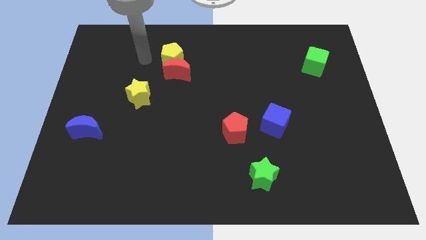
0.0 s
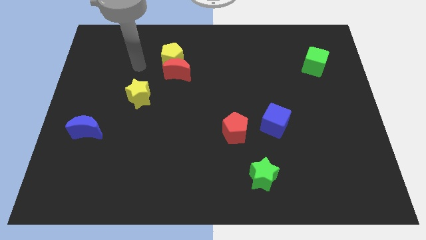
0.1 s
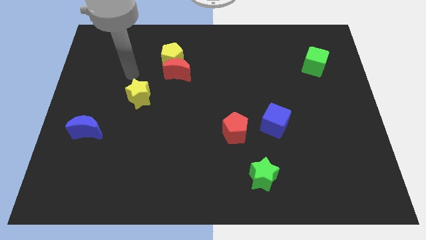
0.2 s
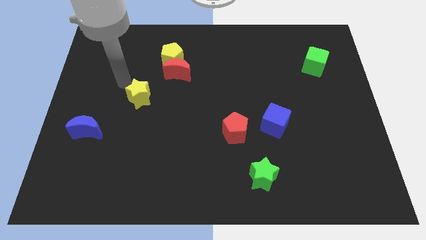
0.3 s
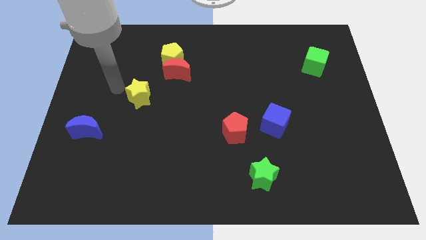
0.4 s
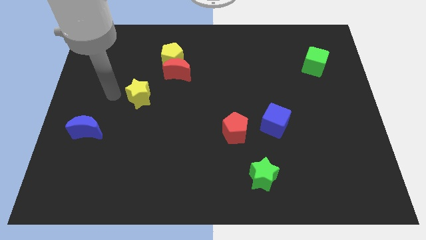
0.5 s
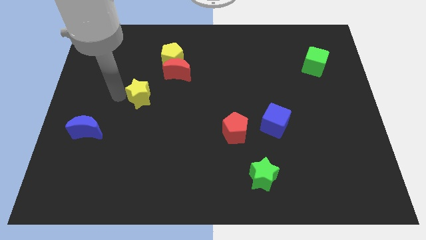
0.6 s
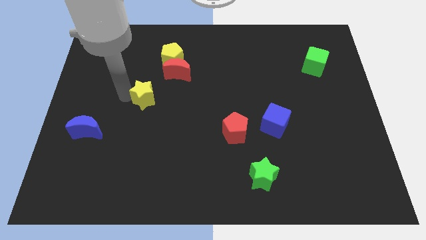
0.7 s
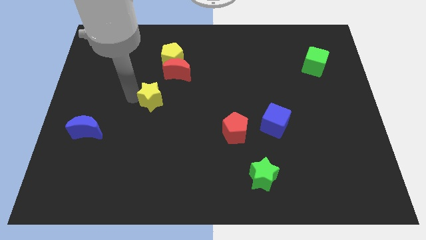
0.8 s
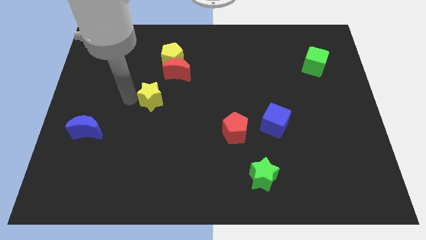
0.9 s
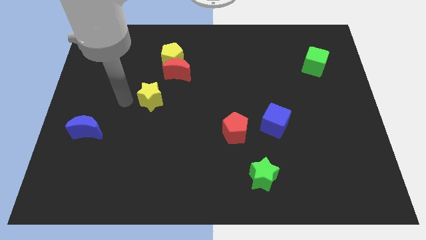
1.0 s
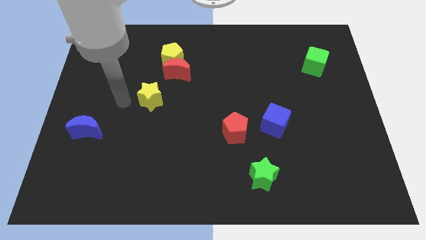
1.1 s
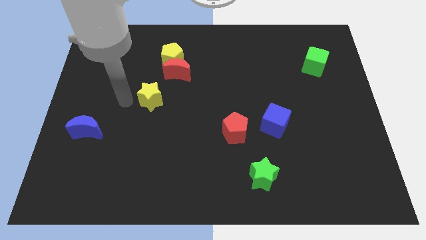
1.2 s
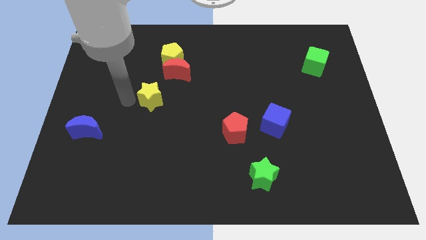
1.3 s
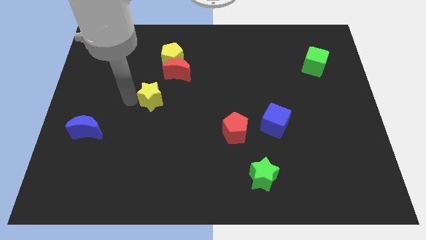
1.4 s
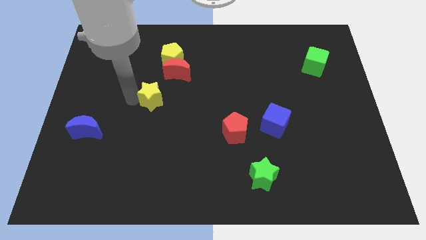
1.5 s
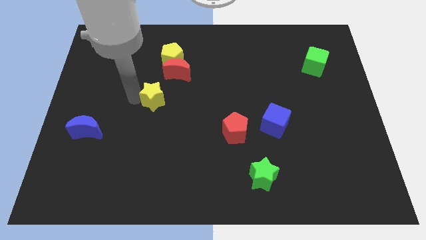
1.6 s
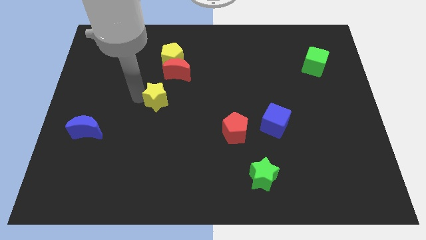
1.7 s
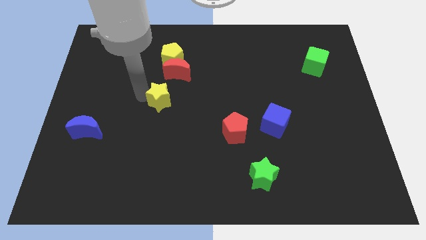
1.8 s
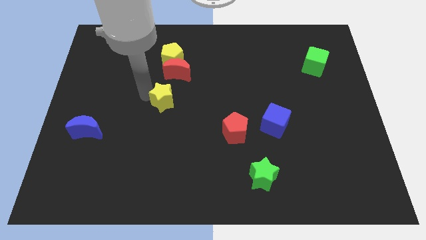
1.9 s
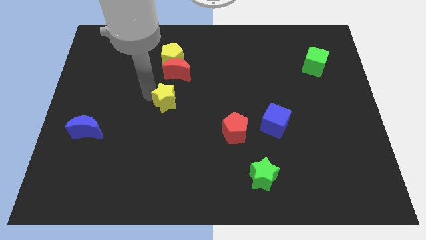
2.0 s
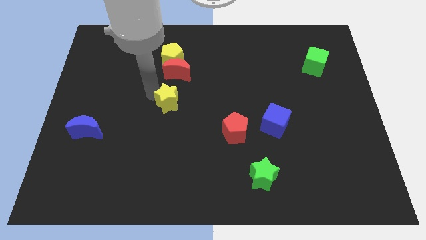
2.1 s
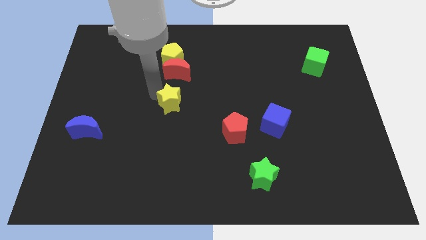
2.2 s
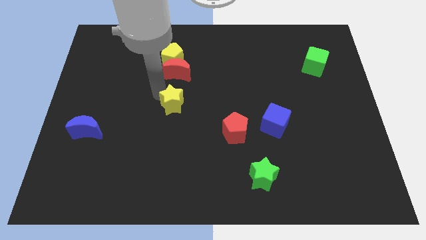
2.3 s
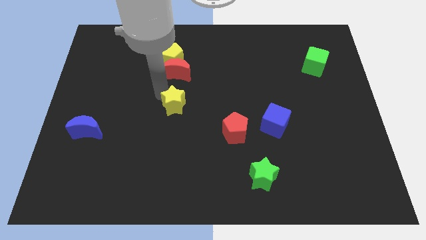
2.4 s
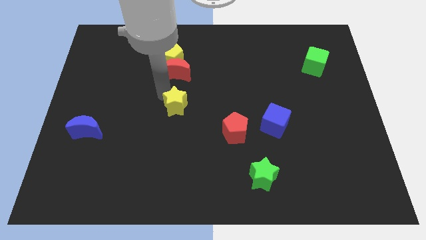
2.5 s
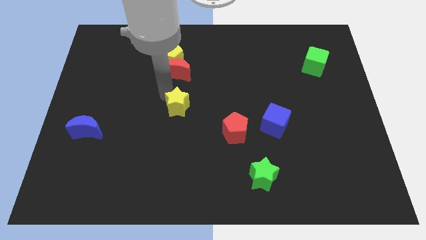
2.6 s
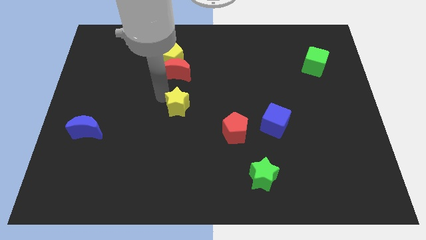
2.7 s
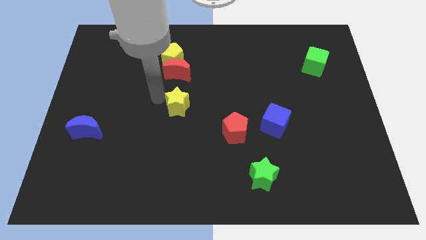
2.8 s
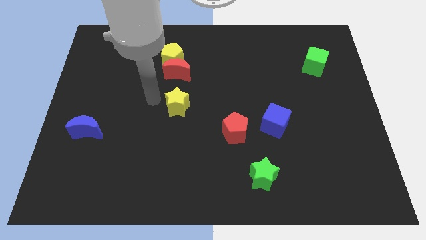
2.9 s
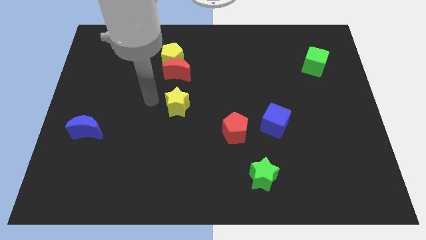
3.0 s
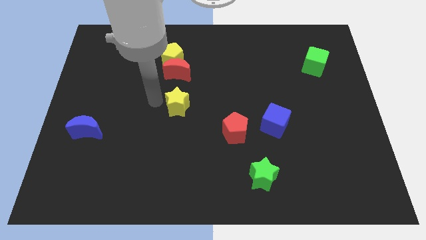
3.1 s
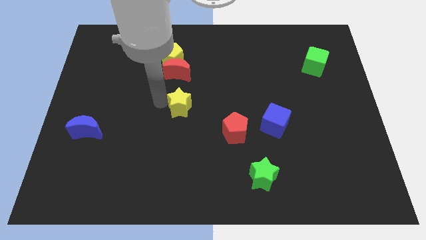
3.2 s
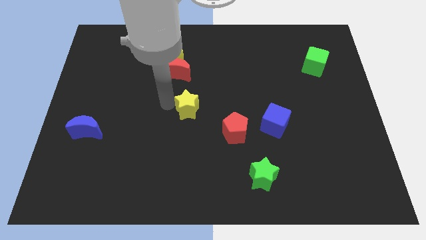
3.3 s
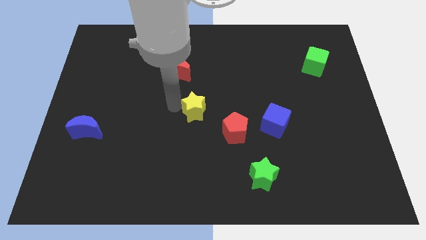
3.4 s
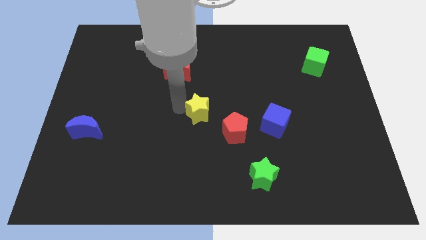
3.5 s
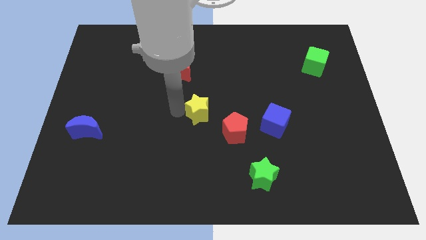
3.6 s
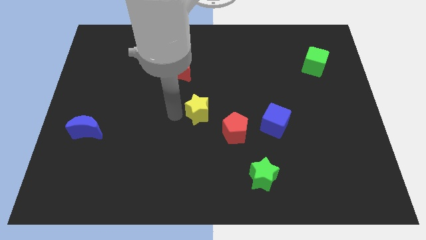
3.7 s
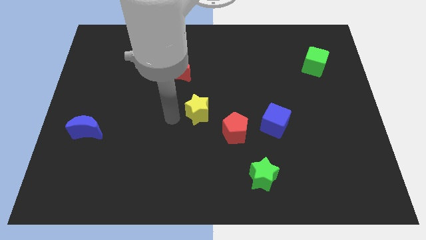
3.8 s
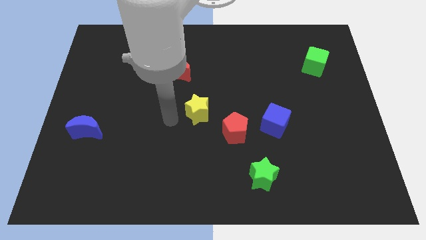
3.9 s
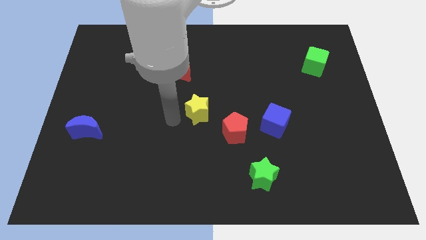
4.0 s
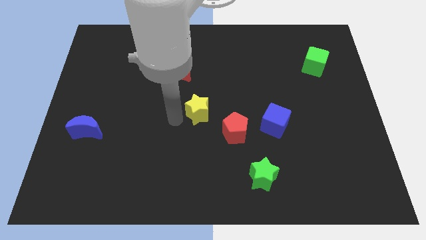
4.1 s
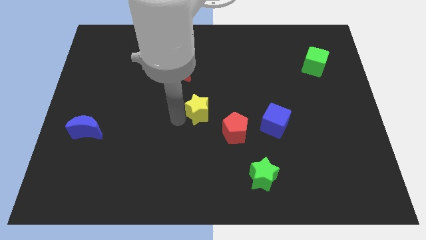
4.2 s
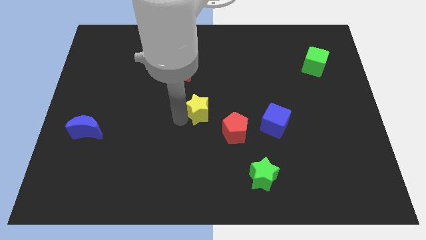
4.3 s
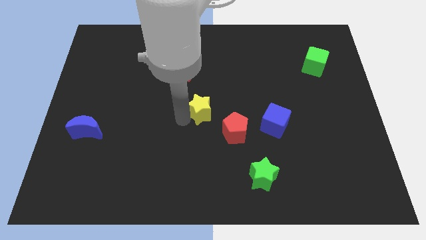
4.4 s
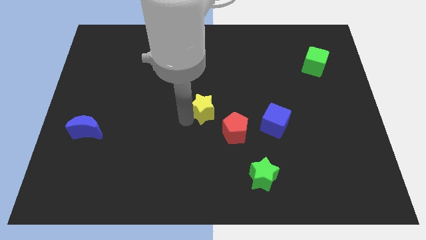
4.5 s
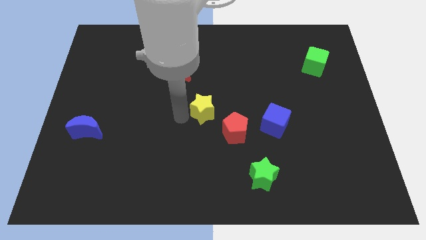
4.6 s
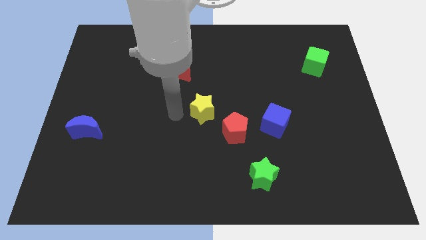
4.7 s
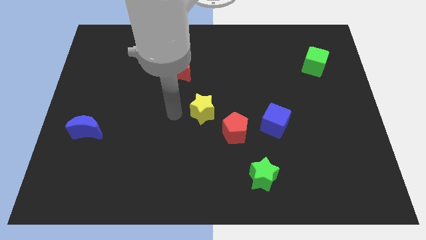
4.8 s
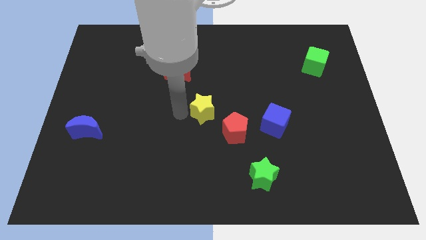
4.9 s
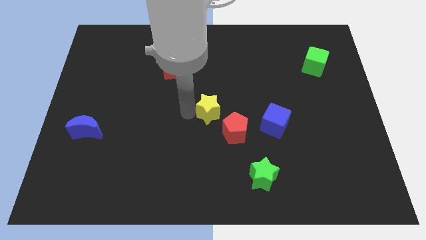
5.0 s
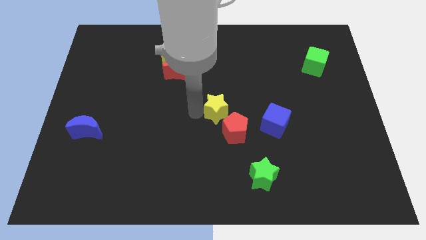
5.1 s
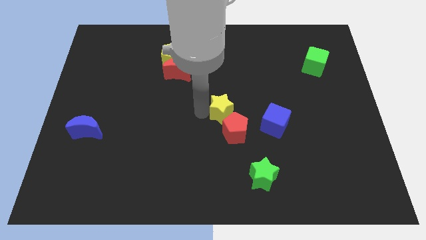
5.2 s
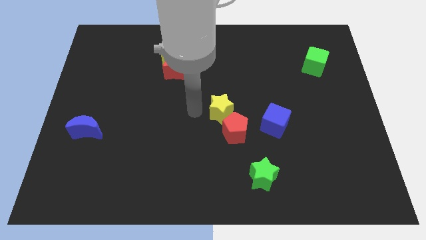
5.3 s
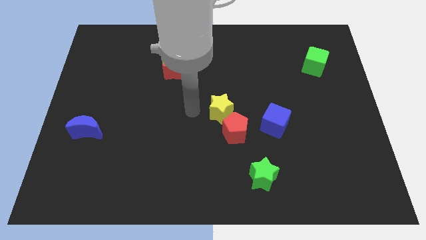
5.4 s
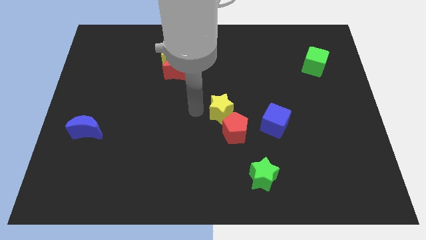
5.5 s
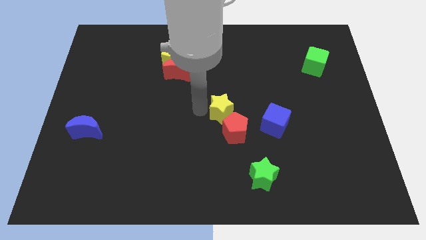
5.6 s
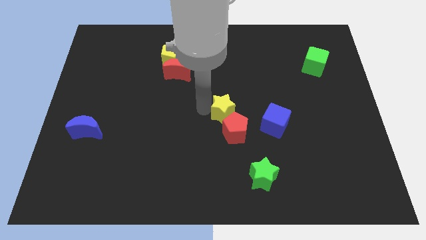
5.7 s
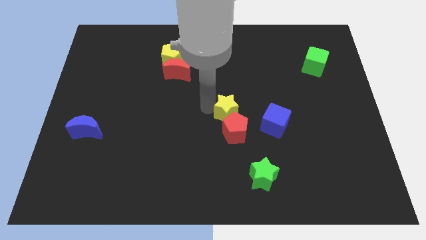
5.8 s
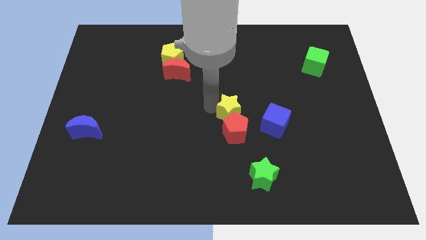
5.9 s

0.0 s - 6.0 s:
push the yellow star diagonally up and to the right of the red pentagon

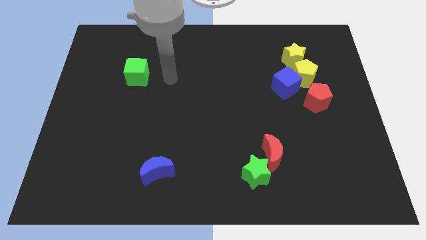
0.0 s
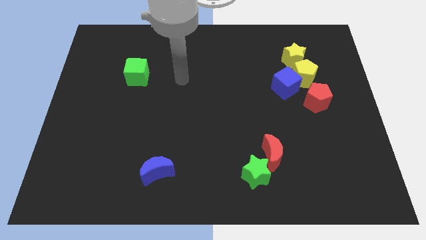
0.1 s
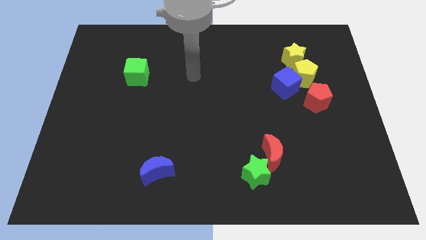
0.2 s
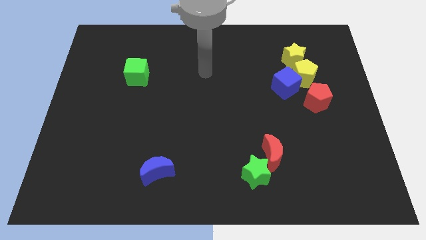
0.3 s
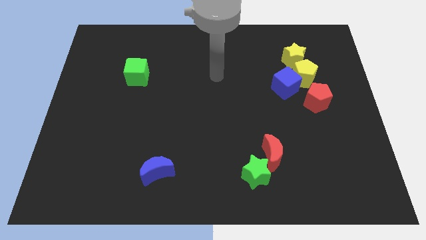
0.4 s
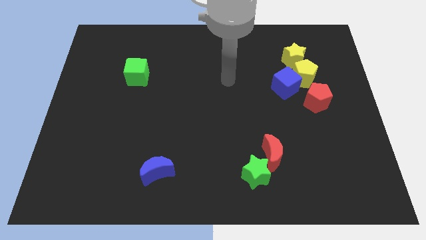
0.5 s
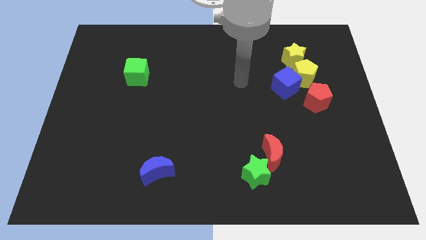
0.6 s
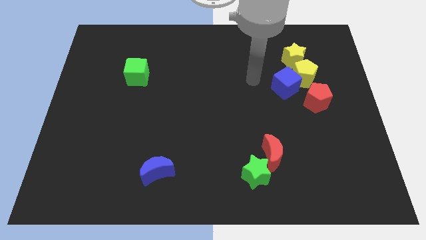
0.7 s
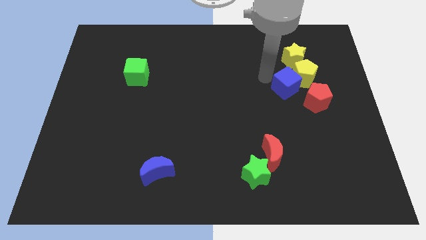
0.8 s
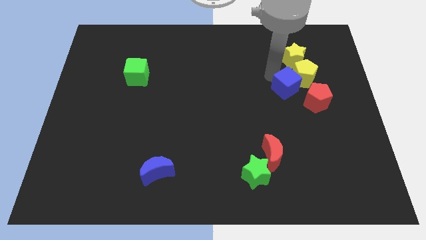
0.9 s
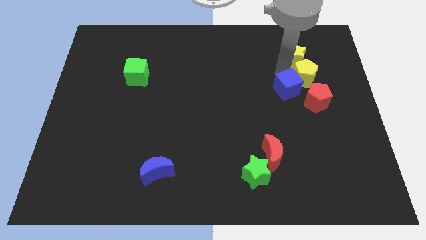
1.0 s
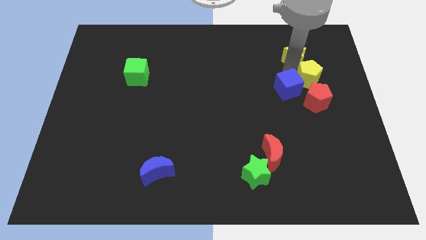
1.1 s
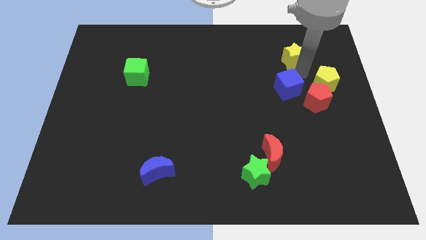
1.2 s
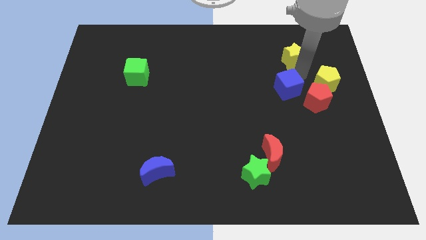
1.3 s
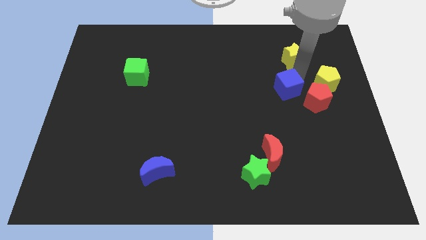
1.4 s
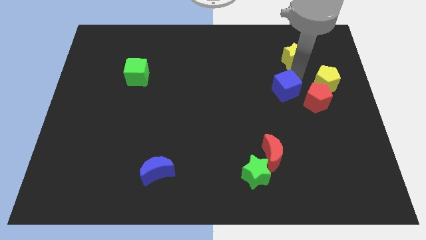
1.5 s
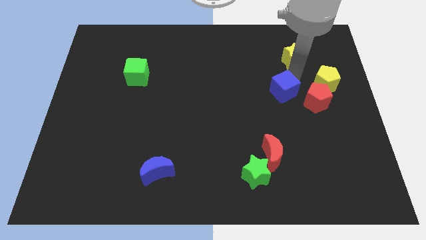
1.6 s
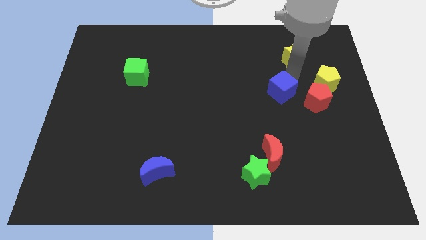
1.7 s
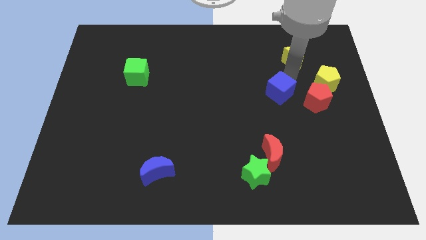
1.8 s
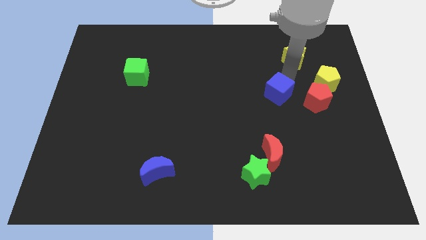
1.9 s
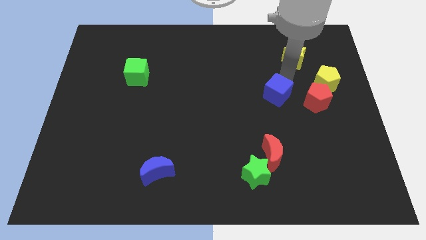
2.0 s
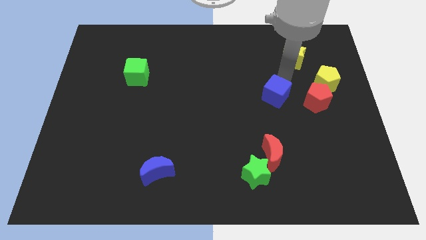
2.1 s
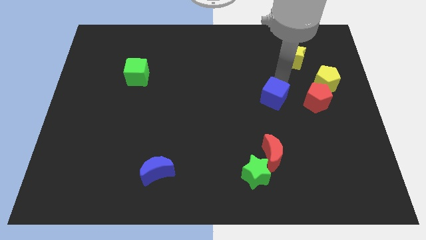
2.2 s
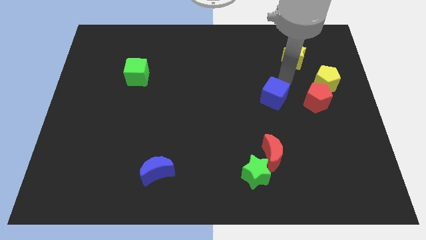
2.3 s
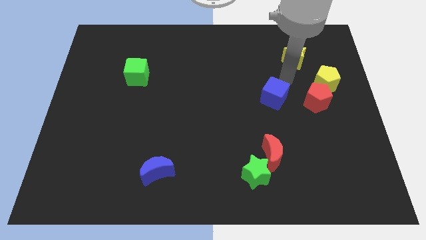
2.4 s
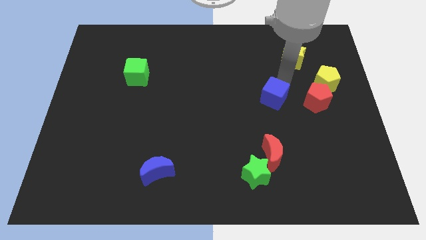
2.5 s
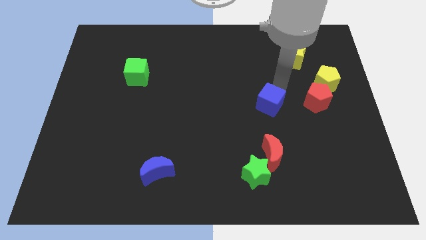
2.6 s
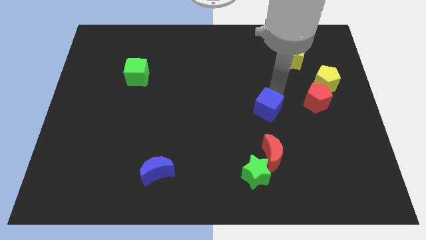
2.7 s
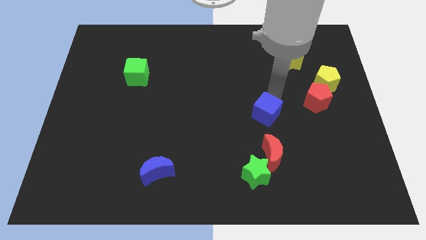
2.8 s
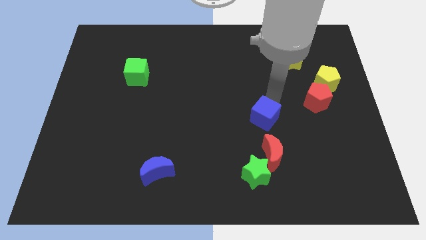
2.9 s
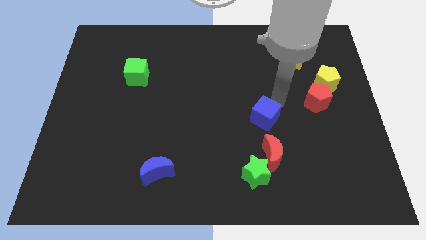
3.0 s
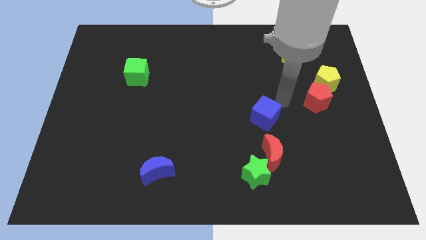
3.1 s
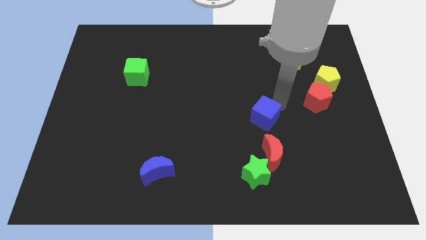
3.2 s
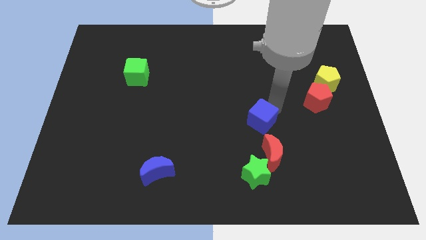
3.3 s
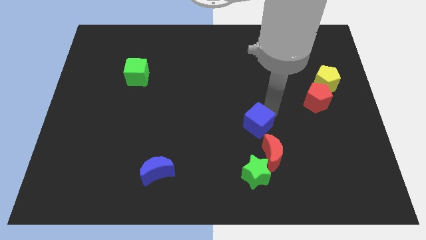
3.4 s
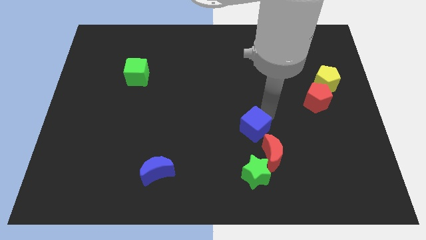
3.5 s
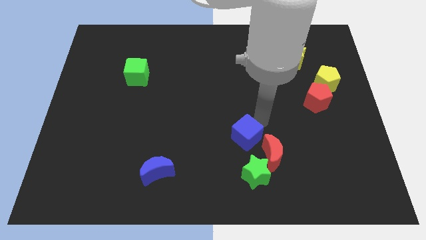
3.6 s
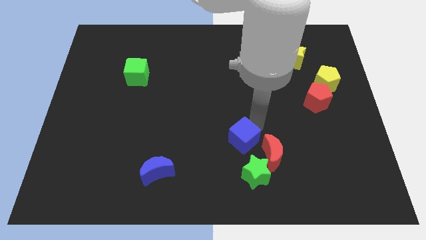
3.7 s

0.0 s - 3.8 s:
move the blue cube to the top left side of the green star
